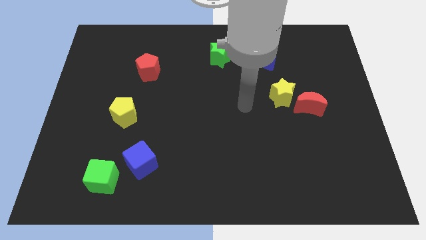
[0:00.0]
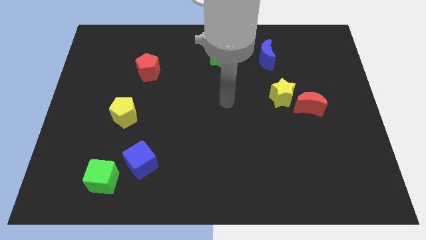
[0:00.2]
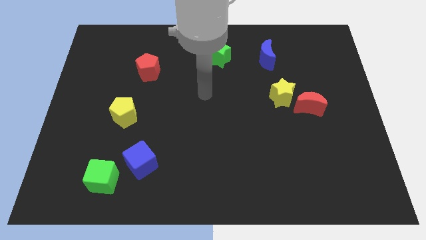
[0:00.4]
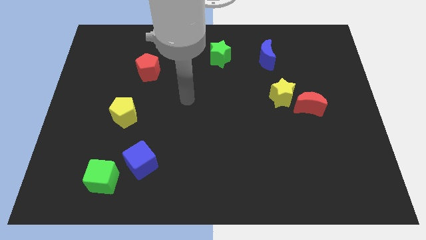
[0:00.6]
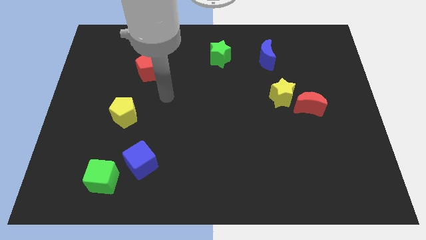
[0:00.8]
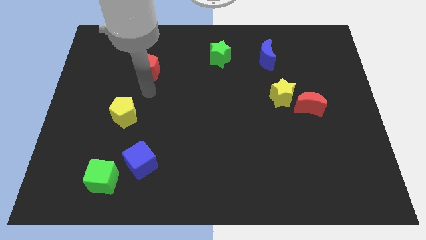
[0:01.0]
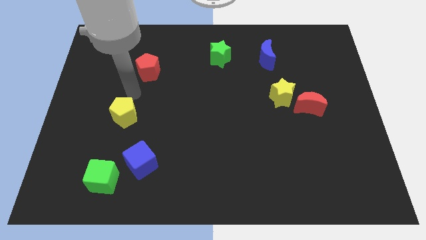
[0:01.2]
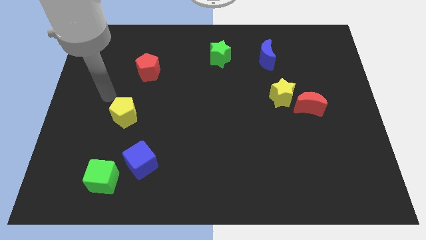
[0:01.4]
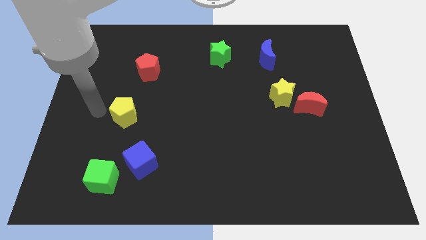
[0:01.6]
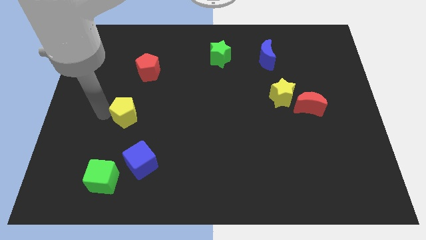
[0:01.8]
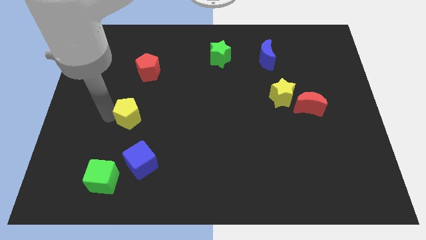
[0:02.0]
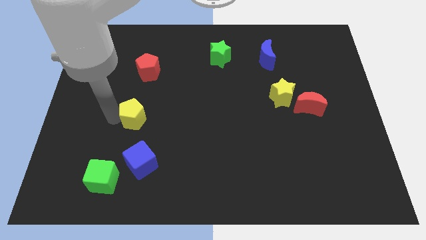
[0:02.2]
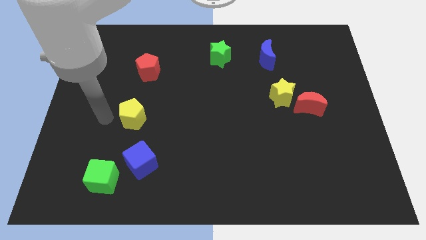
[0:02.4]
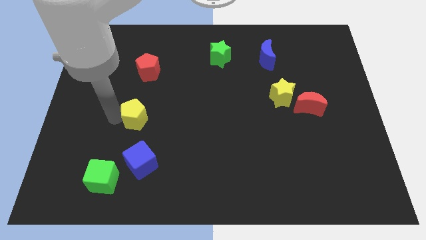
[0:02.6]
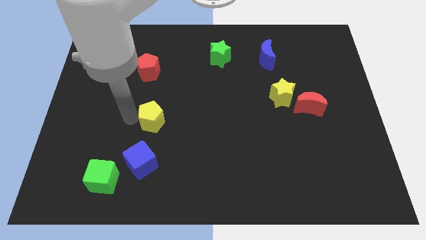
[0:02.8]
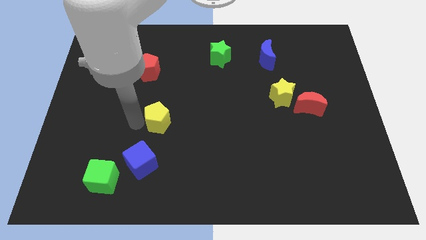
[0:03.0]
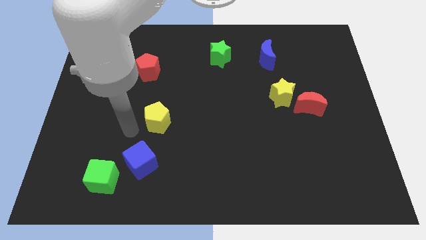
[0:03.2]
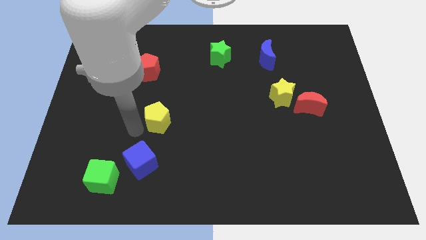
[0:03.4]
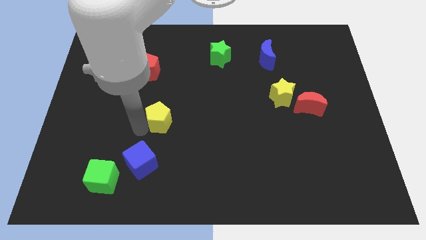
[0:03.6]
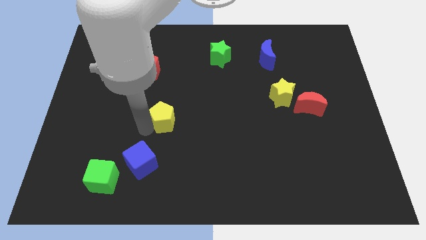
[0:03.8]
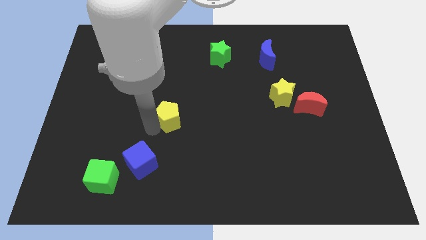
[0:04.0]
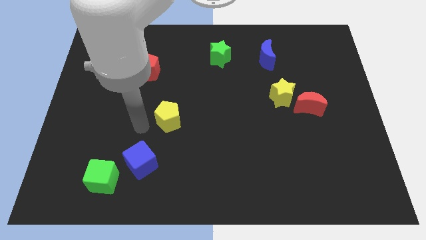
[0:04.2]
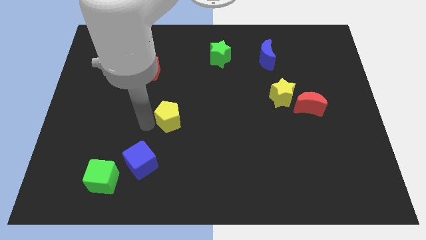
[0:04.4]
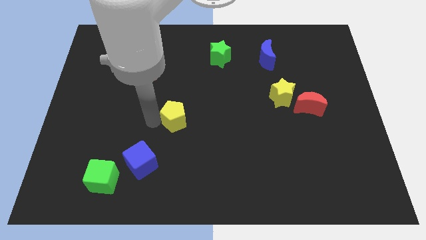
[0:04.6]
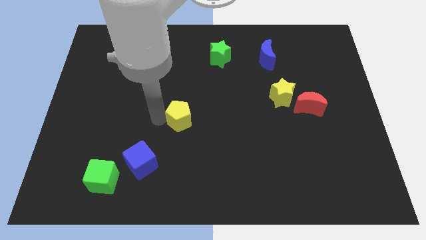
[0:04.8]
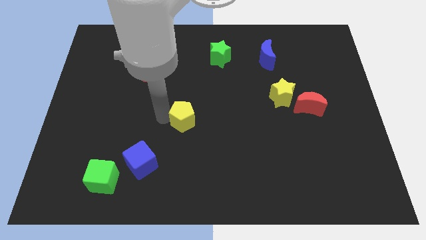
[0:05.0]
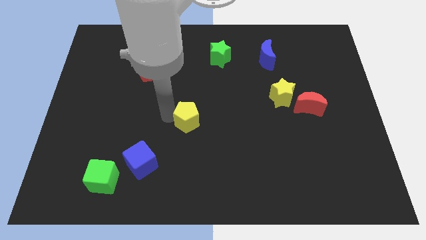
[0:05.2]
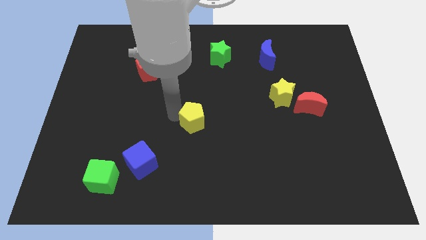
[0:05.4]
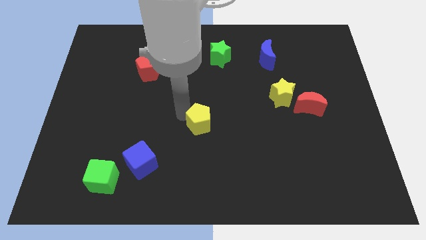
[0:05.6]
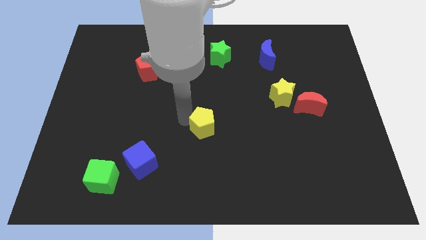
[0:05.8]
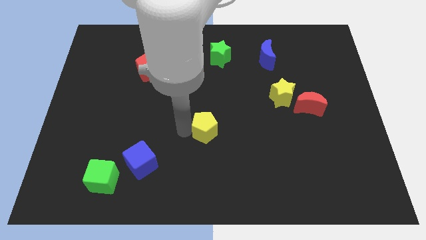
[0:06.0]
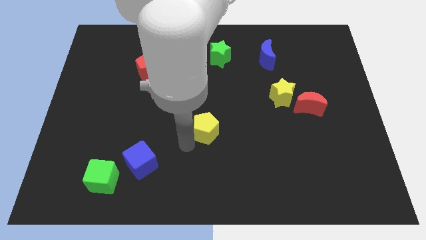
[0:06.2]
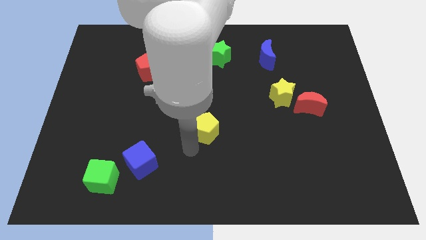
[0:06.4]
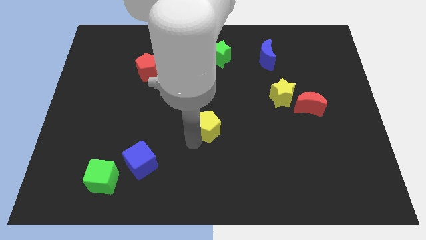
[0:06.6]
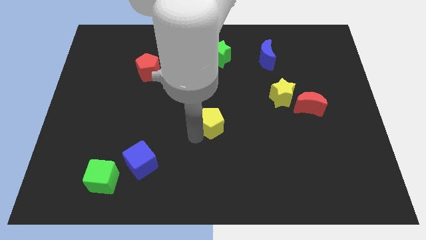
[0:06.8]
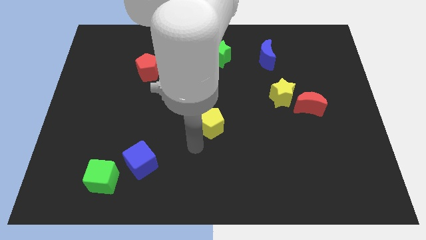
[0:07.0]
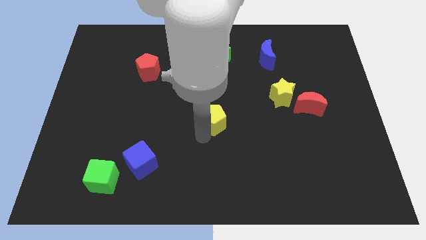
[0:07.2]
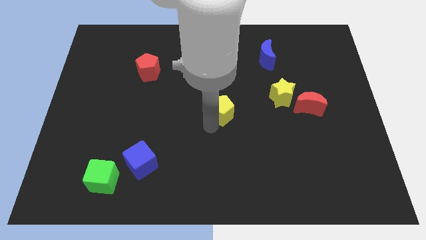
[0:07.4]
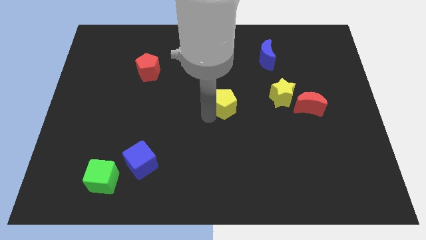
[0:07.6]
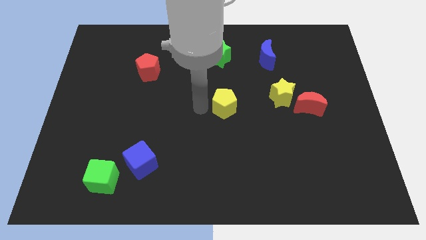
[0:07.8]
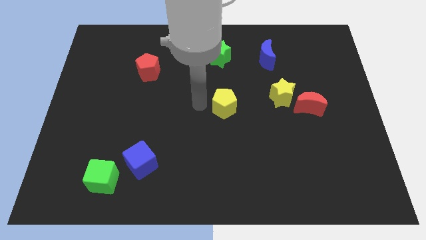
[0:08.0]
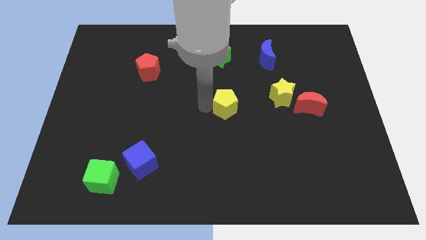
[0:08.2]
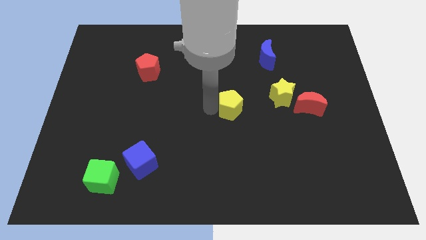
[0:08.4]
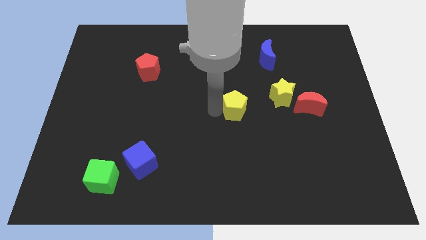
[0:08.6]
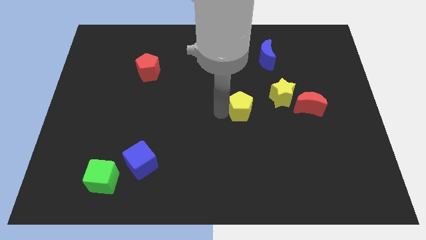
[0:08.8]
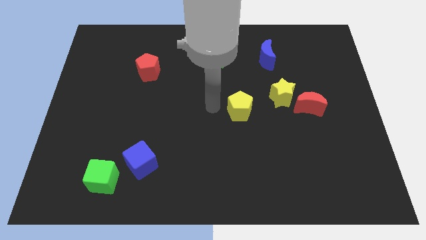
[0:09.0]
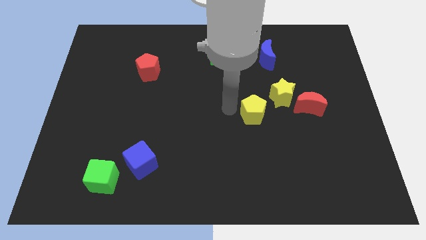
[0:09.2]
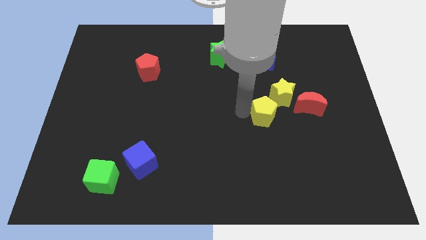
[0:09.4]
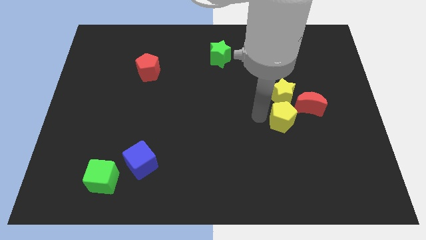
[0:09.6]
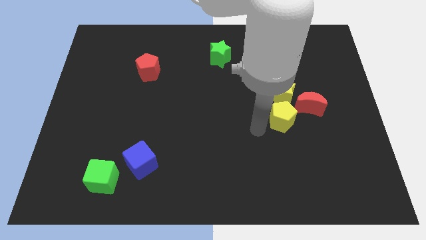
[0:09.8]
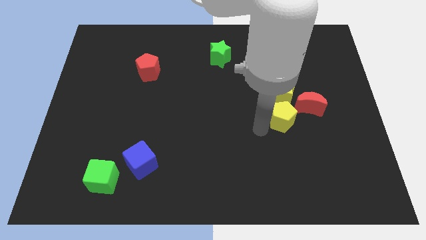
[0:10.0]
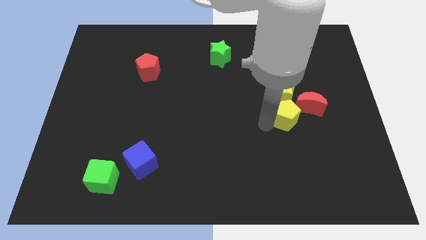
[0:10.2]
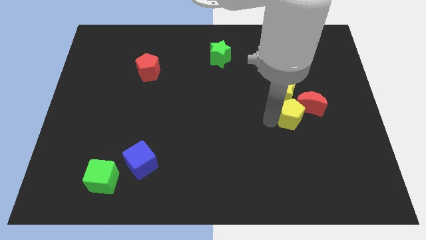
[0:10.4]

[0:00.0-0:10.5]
put the yellow pentagon next to the red moon

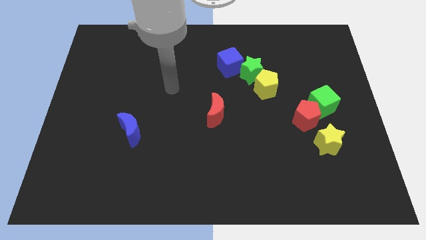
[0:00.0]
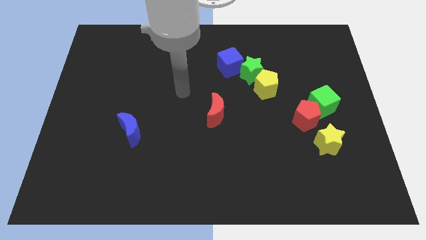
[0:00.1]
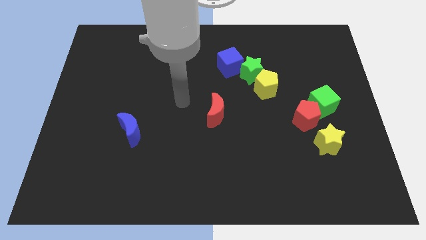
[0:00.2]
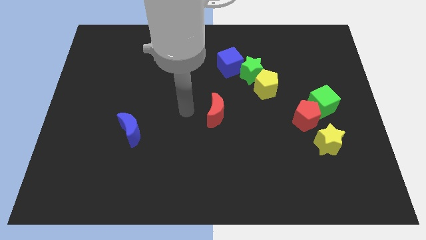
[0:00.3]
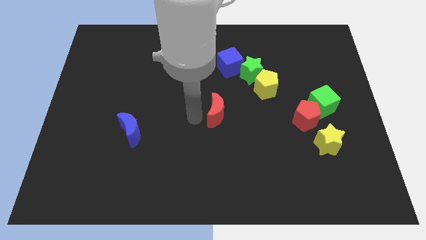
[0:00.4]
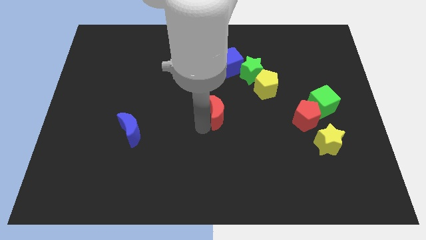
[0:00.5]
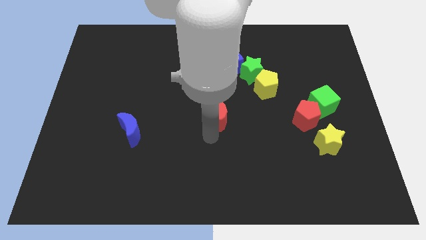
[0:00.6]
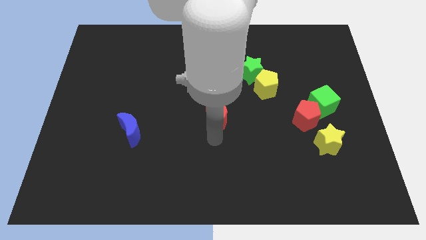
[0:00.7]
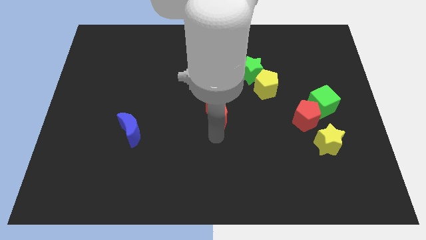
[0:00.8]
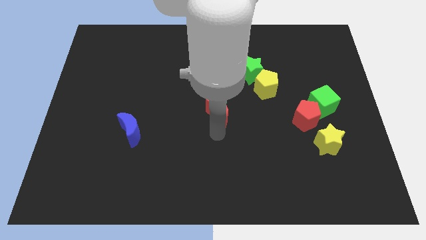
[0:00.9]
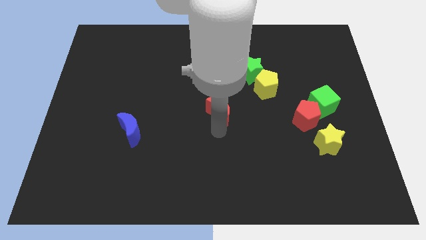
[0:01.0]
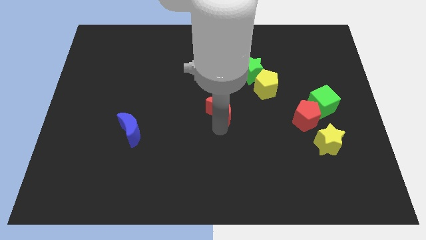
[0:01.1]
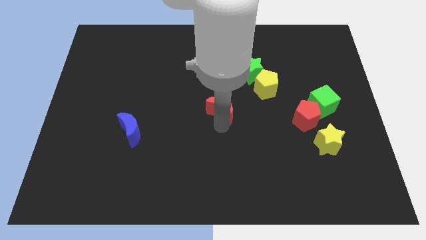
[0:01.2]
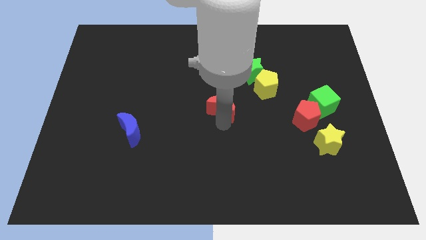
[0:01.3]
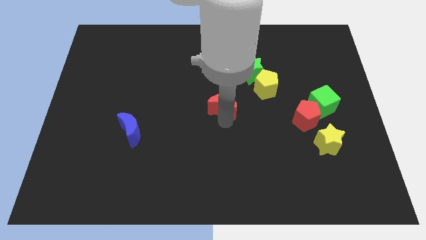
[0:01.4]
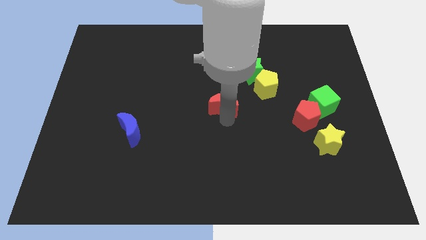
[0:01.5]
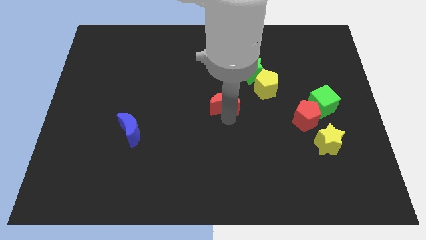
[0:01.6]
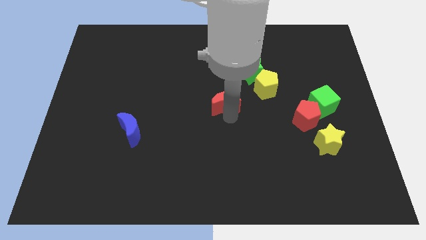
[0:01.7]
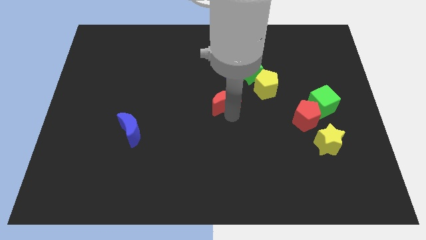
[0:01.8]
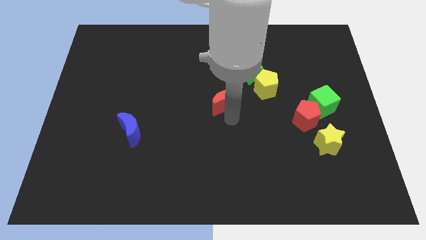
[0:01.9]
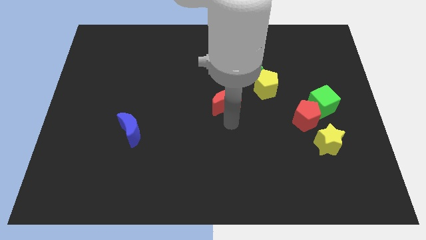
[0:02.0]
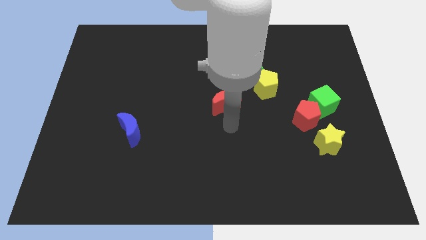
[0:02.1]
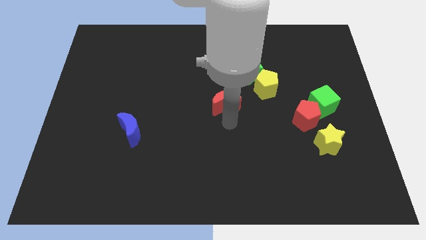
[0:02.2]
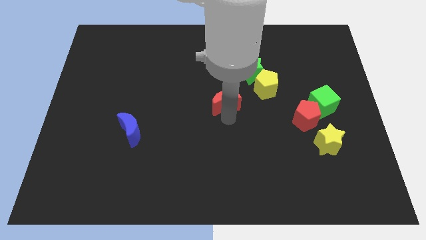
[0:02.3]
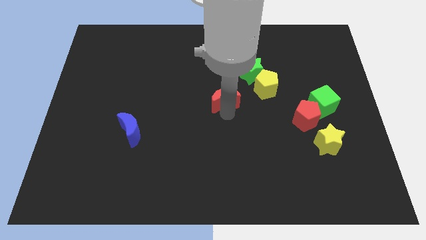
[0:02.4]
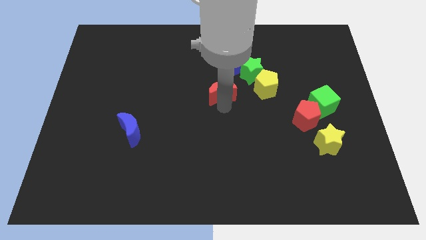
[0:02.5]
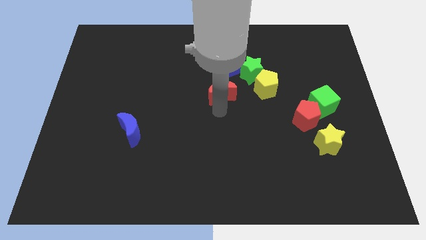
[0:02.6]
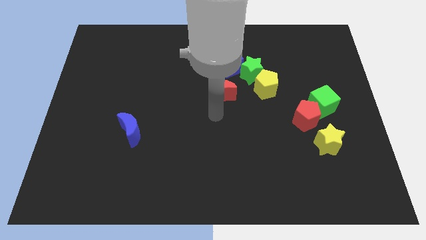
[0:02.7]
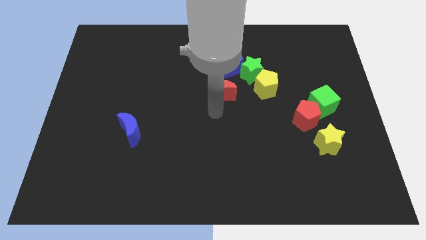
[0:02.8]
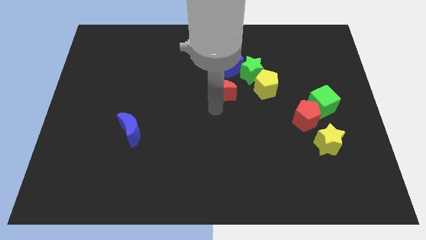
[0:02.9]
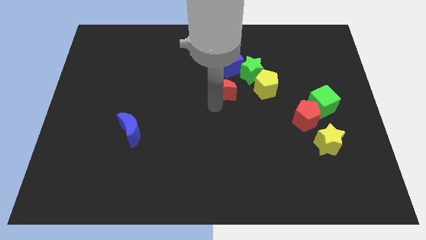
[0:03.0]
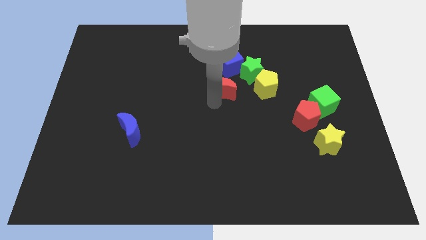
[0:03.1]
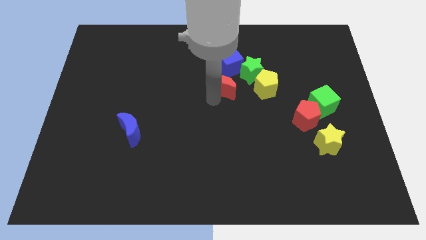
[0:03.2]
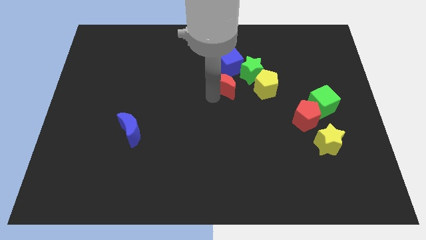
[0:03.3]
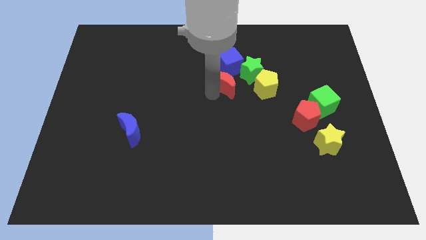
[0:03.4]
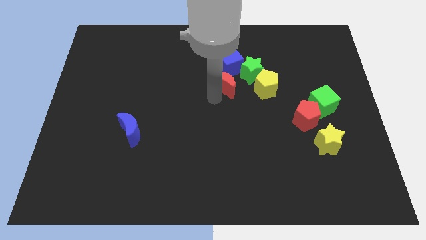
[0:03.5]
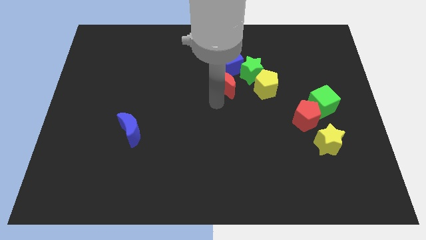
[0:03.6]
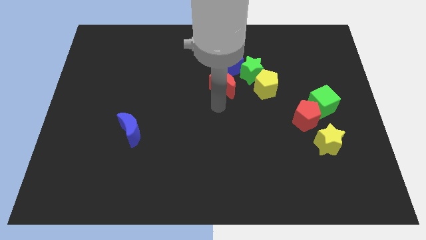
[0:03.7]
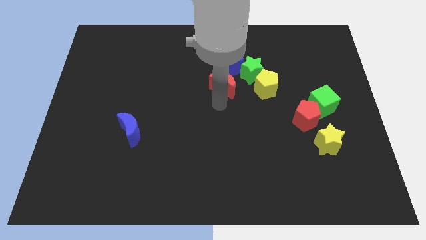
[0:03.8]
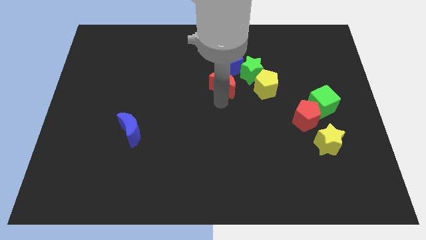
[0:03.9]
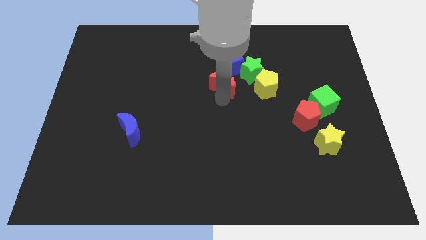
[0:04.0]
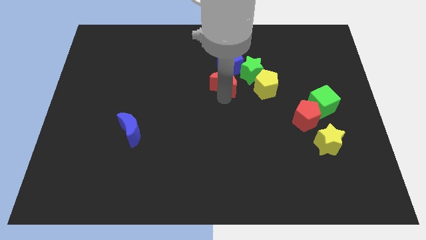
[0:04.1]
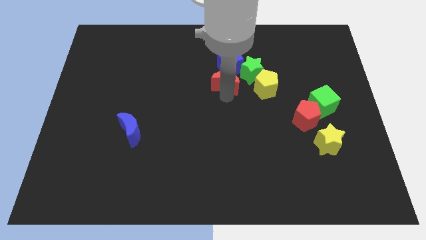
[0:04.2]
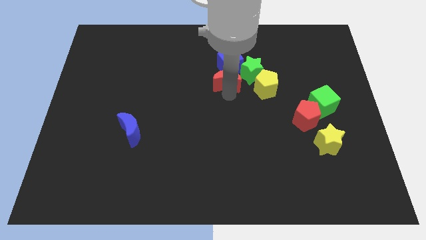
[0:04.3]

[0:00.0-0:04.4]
push the red moon next to the blue cube
